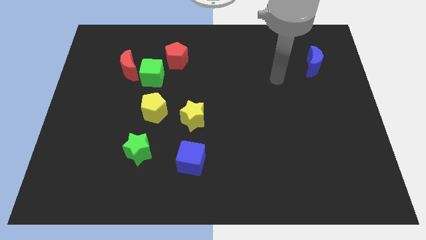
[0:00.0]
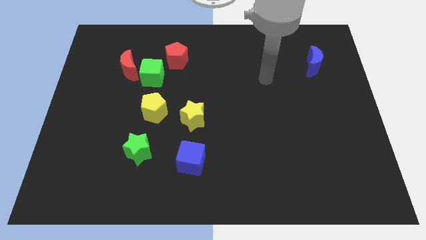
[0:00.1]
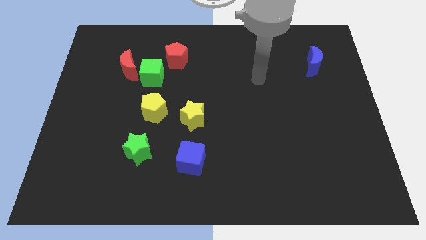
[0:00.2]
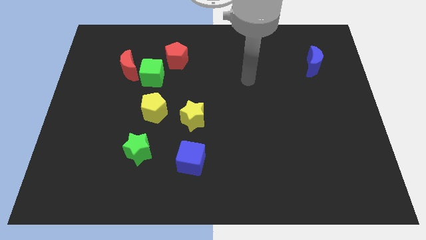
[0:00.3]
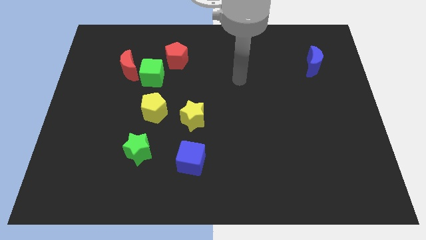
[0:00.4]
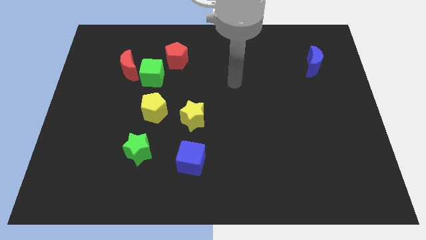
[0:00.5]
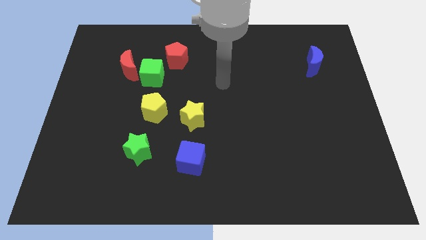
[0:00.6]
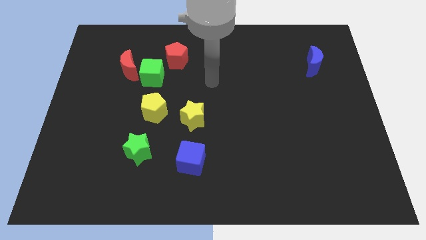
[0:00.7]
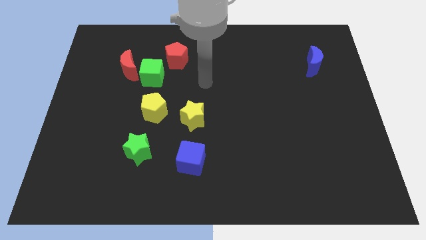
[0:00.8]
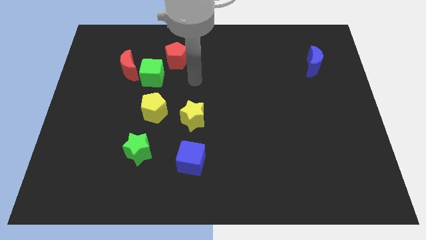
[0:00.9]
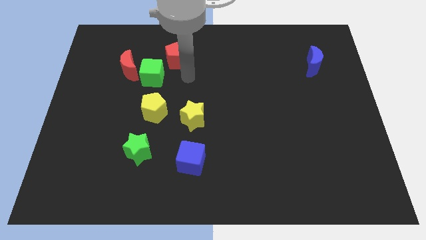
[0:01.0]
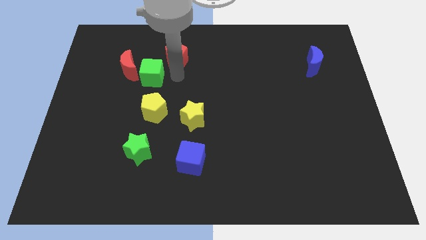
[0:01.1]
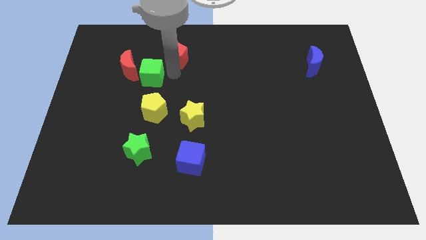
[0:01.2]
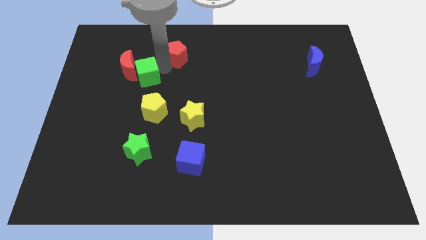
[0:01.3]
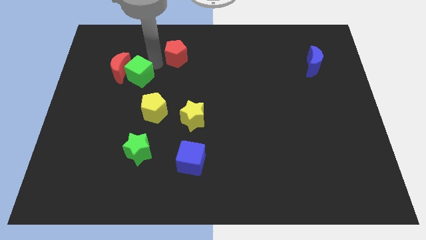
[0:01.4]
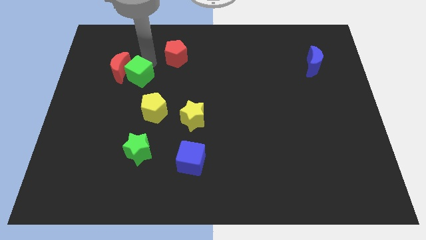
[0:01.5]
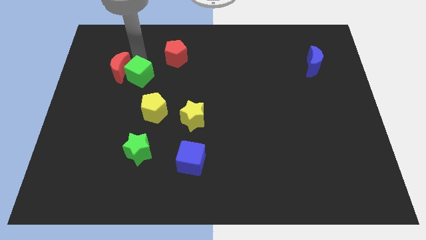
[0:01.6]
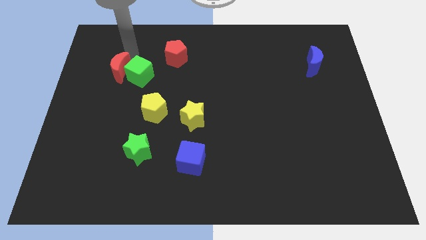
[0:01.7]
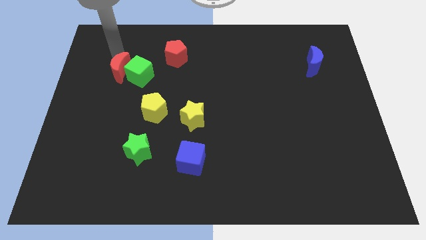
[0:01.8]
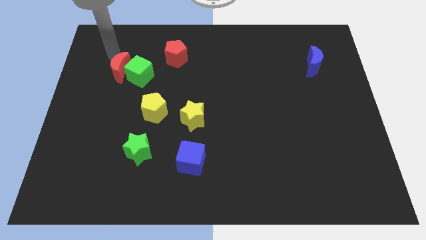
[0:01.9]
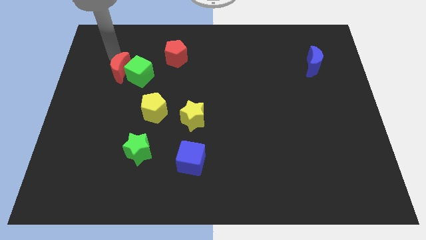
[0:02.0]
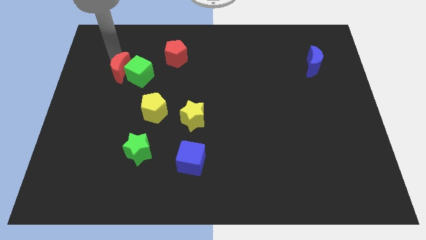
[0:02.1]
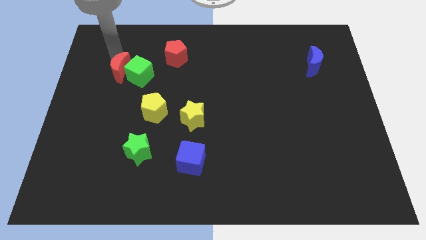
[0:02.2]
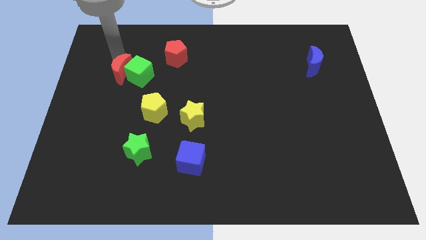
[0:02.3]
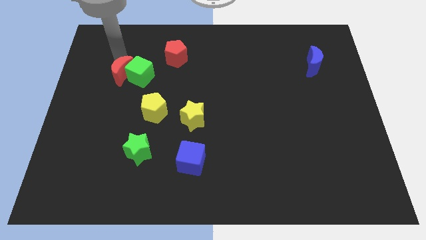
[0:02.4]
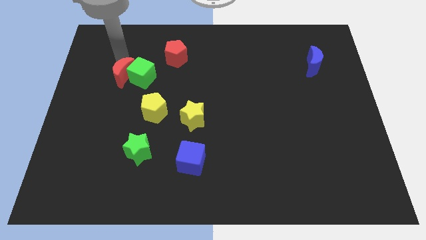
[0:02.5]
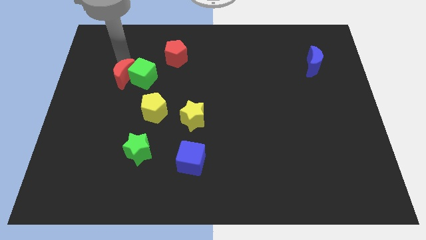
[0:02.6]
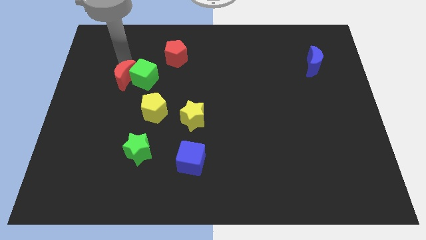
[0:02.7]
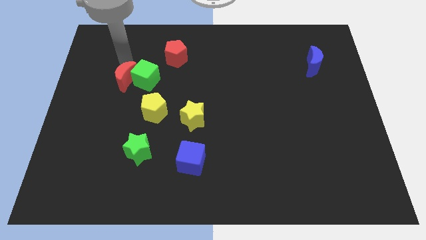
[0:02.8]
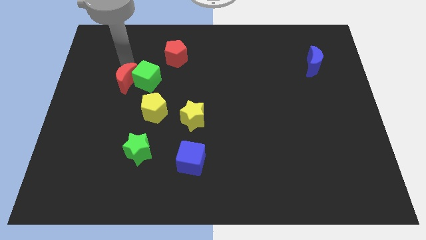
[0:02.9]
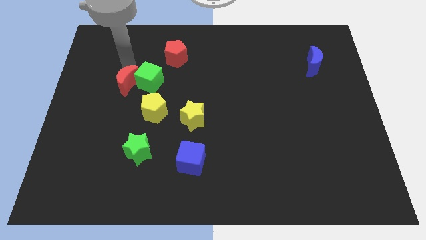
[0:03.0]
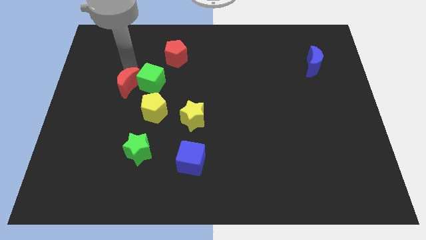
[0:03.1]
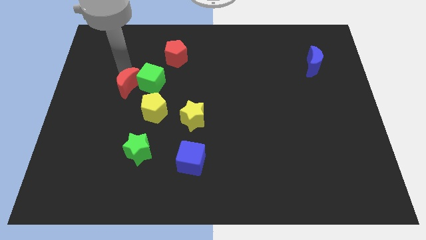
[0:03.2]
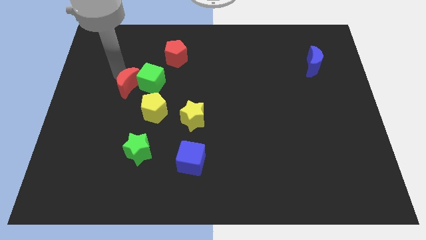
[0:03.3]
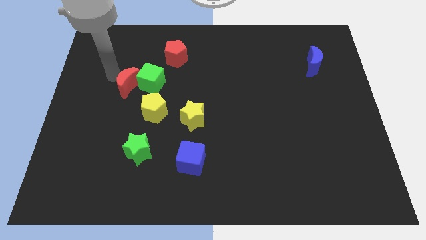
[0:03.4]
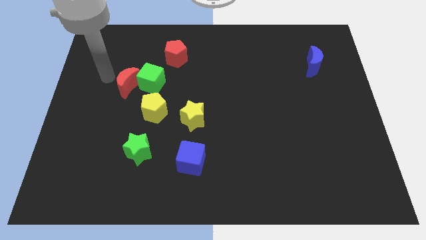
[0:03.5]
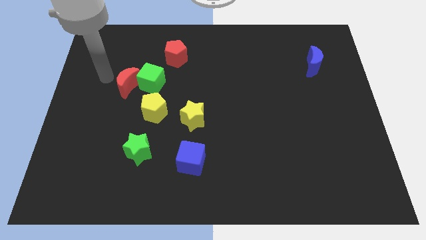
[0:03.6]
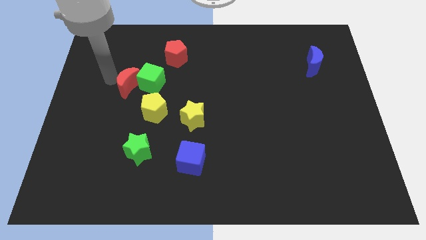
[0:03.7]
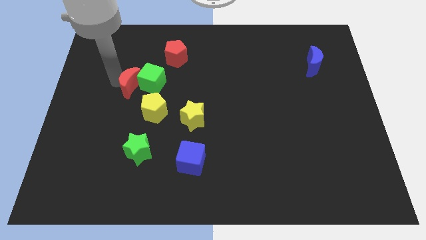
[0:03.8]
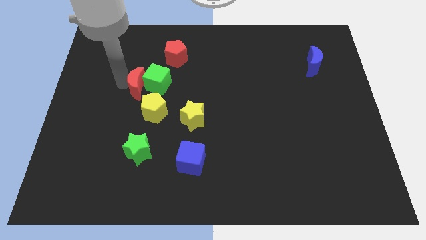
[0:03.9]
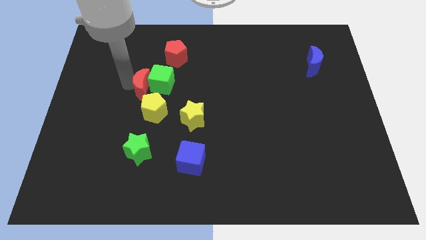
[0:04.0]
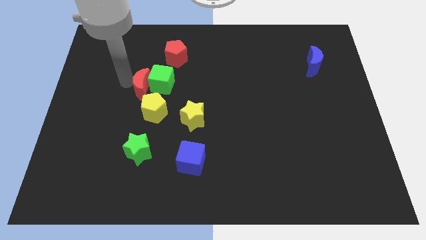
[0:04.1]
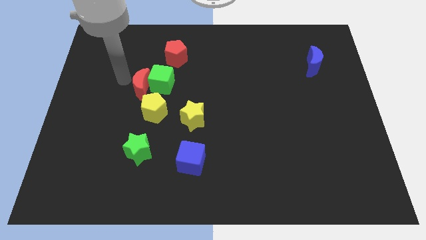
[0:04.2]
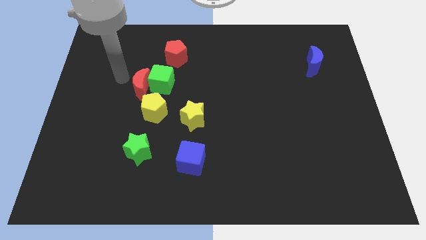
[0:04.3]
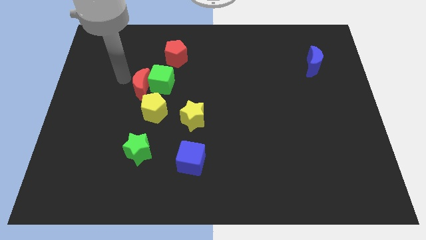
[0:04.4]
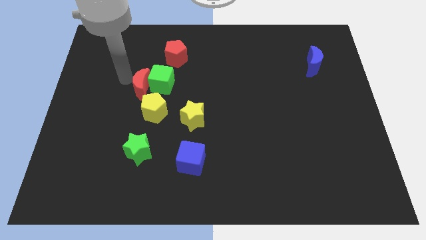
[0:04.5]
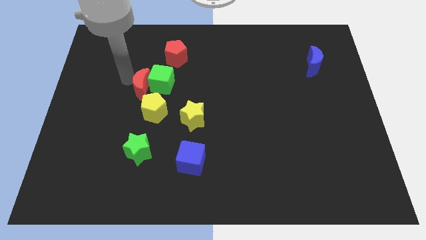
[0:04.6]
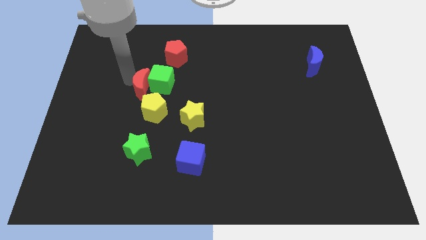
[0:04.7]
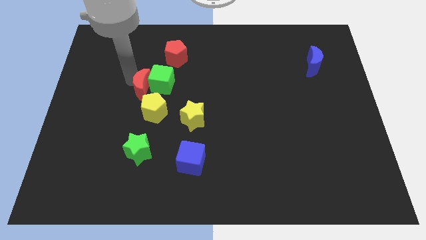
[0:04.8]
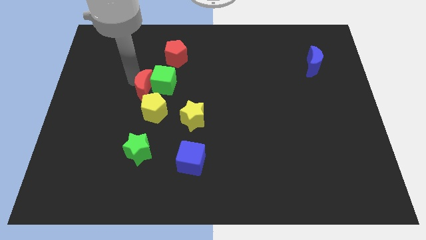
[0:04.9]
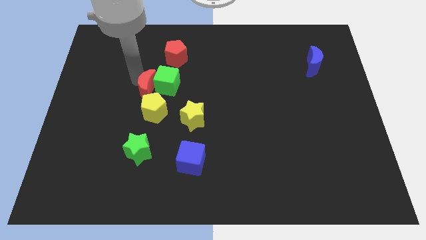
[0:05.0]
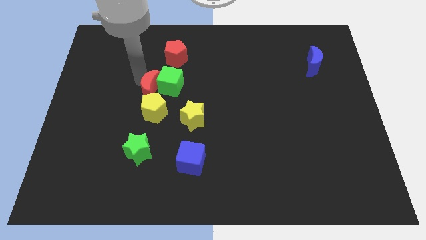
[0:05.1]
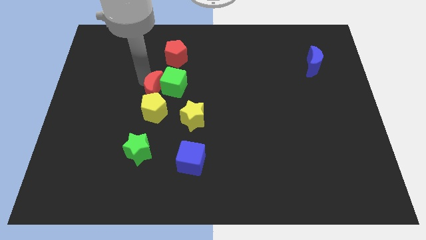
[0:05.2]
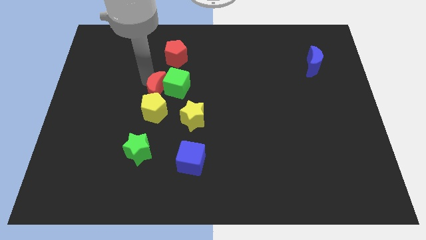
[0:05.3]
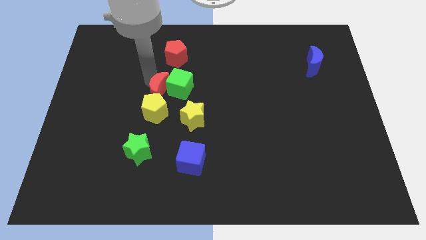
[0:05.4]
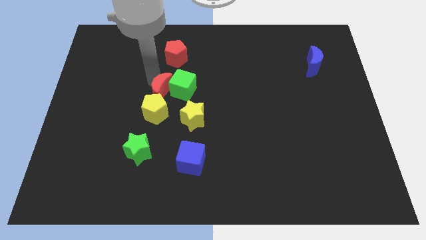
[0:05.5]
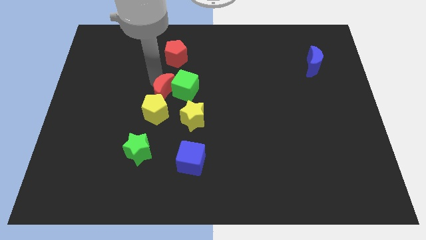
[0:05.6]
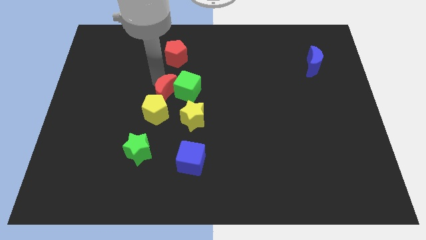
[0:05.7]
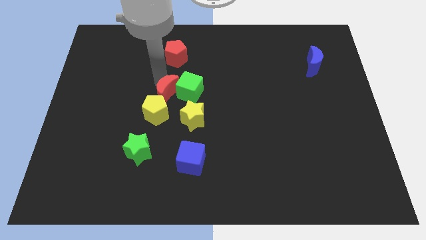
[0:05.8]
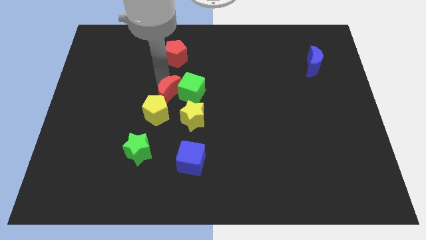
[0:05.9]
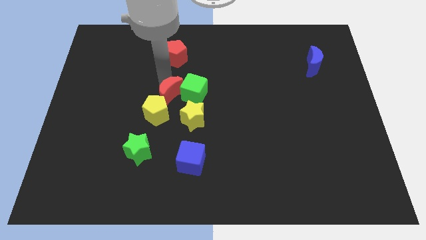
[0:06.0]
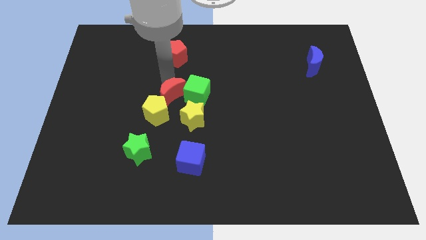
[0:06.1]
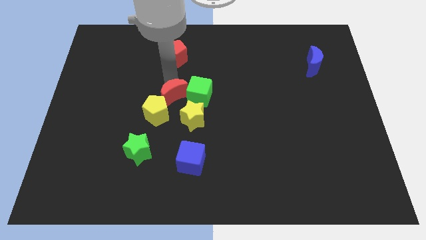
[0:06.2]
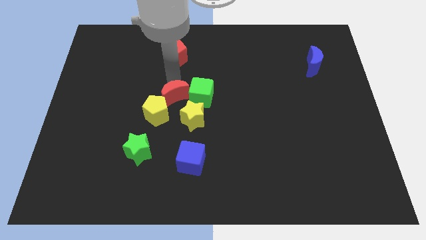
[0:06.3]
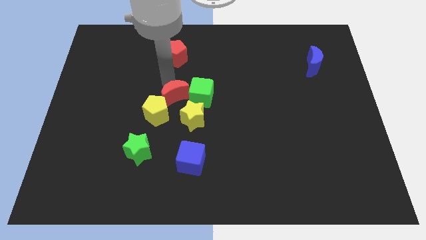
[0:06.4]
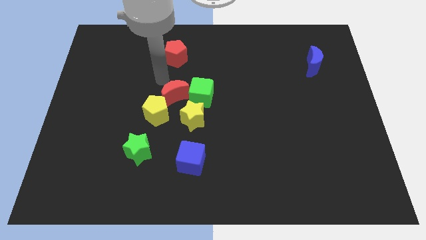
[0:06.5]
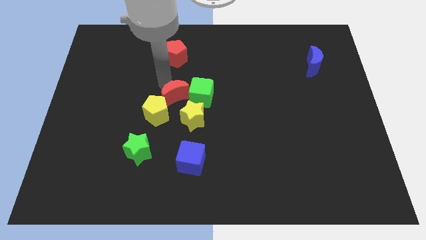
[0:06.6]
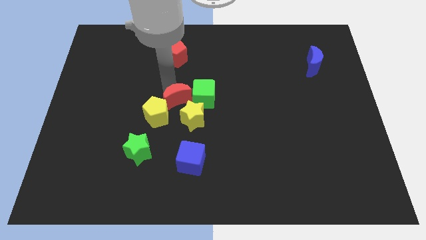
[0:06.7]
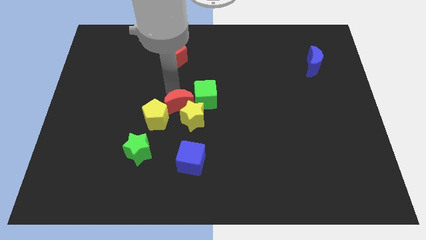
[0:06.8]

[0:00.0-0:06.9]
push the red moon towards the yellow star

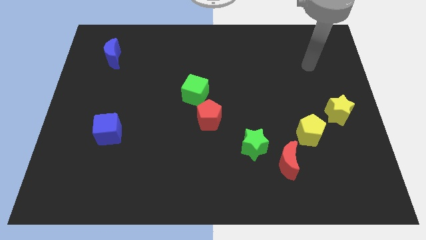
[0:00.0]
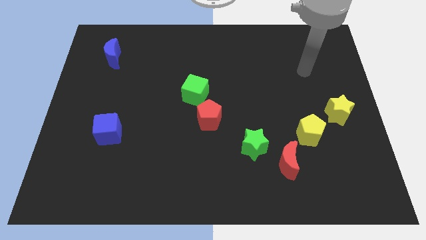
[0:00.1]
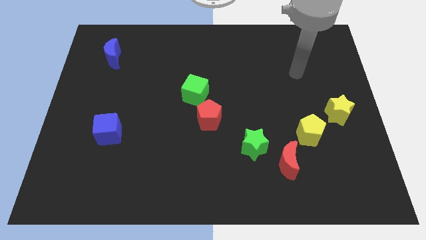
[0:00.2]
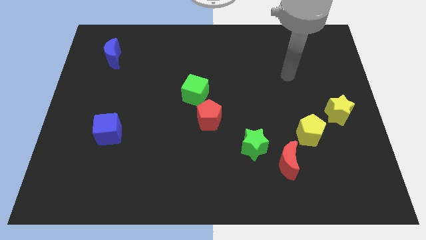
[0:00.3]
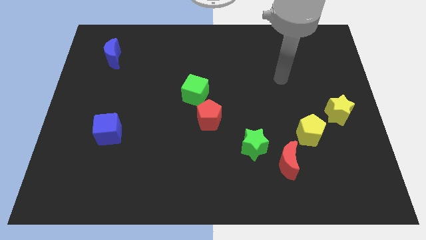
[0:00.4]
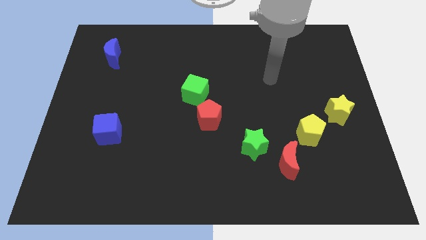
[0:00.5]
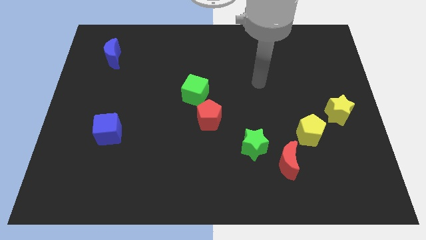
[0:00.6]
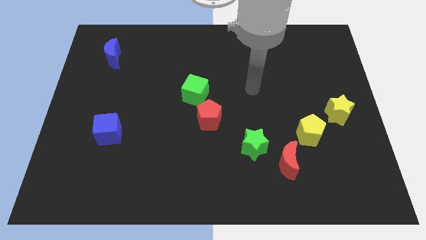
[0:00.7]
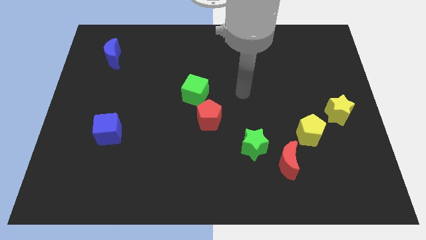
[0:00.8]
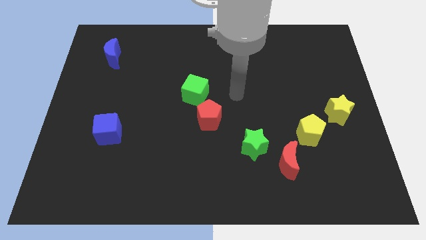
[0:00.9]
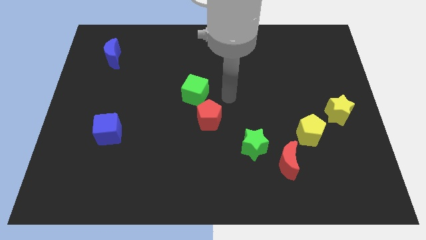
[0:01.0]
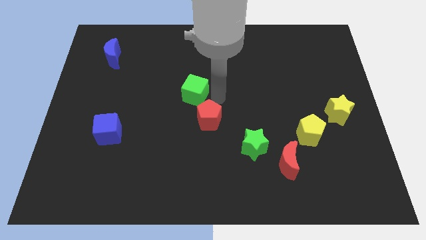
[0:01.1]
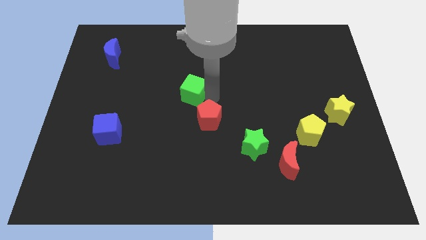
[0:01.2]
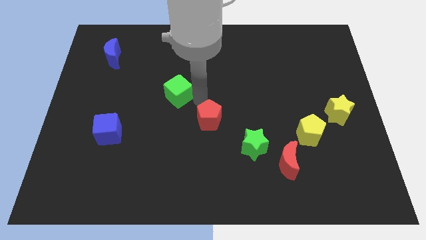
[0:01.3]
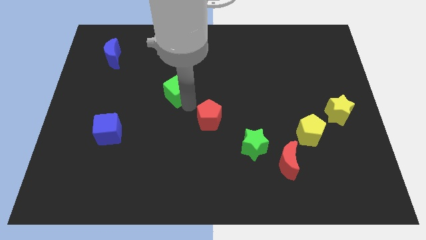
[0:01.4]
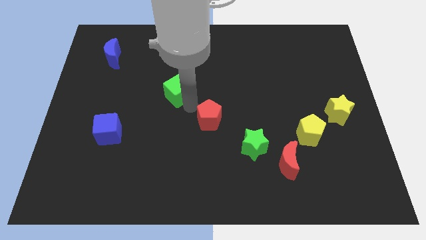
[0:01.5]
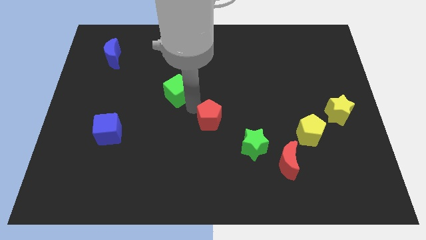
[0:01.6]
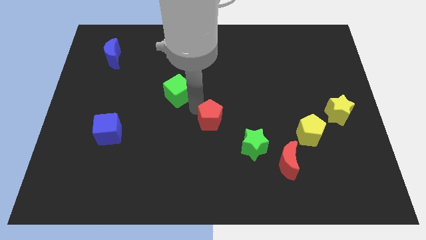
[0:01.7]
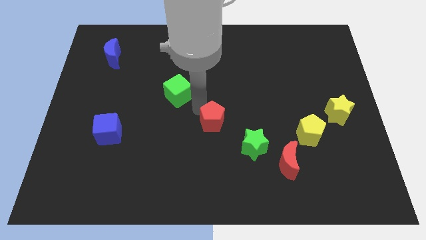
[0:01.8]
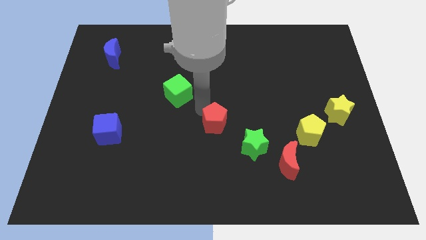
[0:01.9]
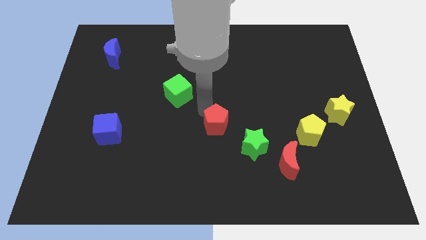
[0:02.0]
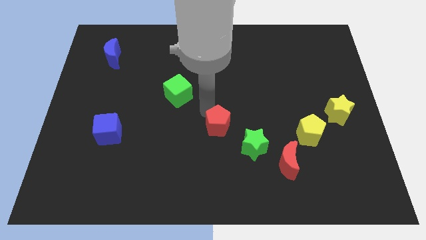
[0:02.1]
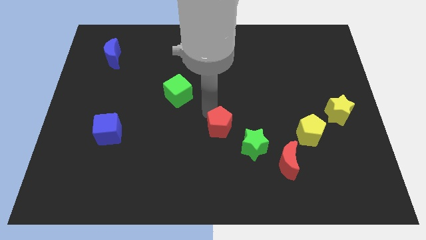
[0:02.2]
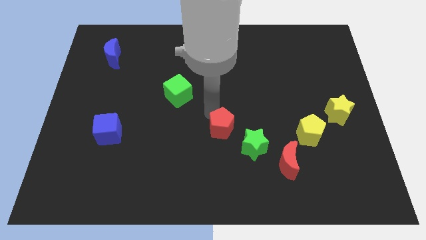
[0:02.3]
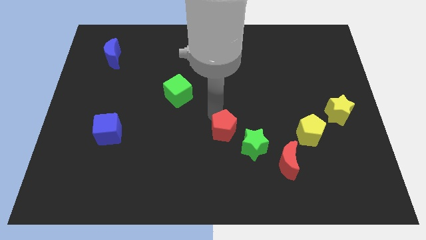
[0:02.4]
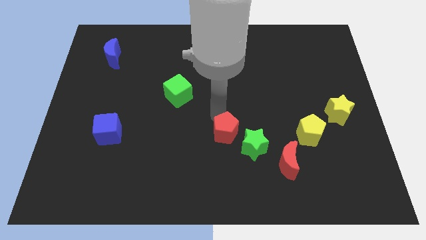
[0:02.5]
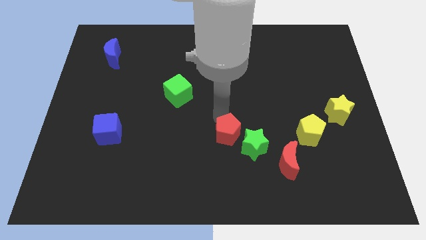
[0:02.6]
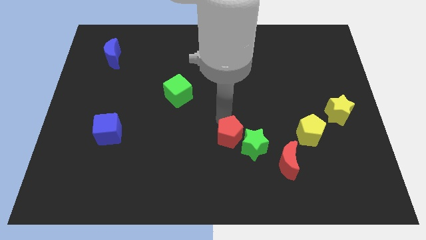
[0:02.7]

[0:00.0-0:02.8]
slide the red pentagon close to the green star
